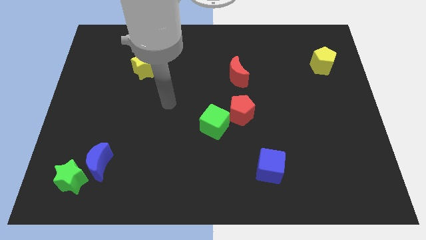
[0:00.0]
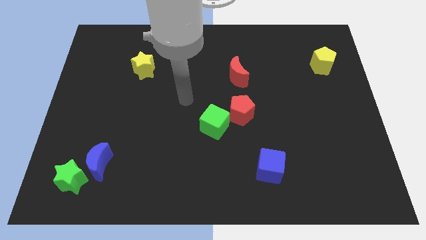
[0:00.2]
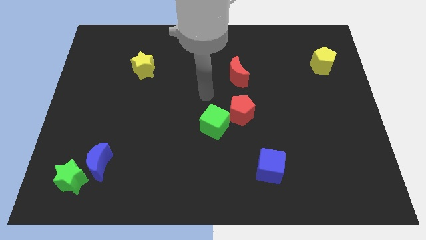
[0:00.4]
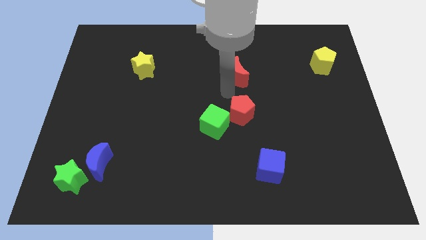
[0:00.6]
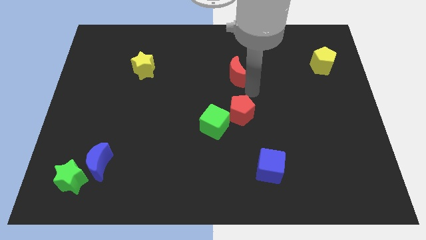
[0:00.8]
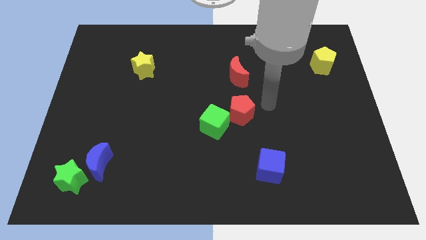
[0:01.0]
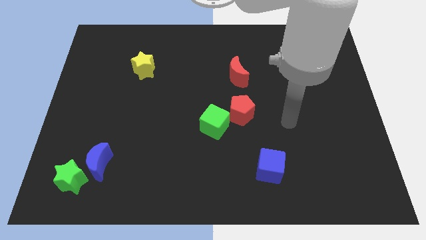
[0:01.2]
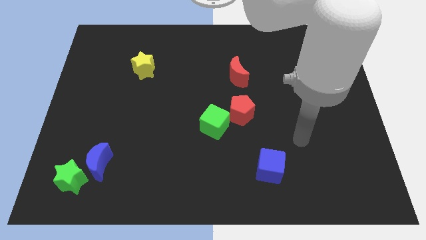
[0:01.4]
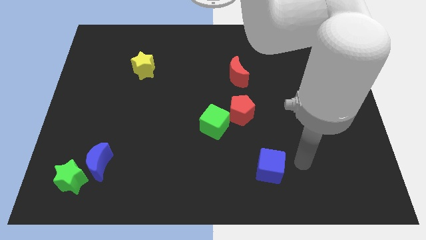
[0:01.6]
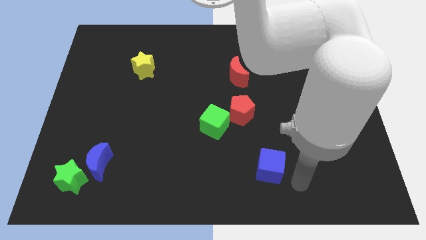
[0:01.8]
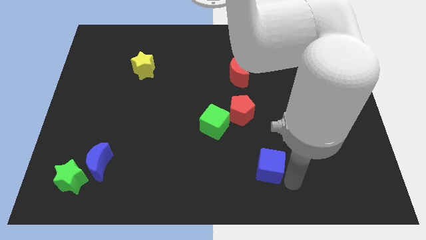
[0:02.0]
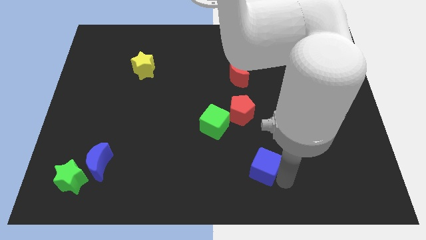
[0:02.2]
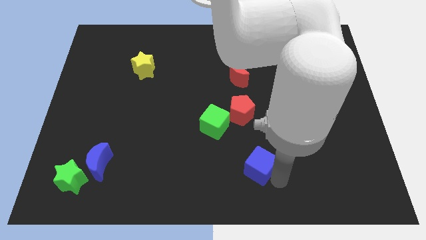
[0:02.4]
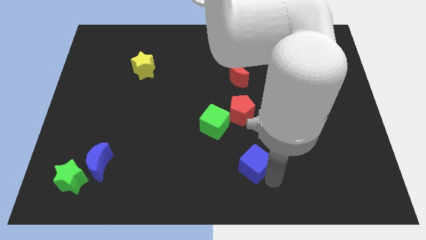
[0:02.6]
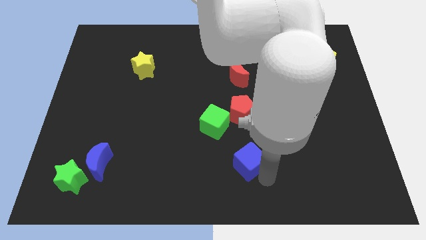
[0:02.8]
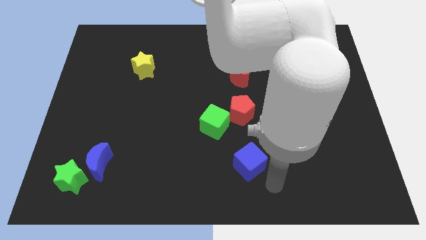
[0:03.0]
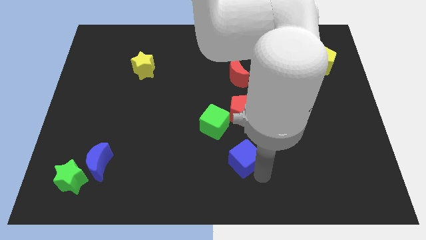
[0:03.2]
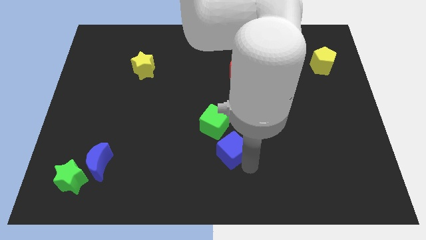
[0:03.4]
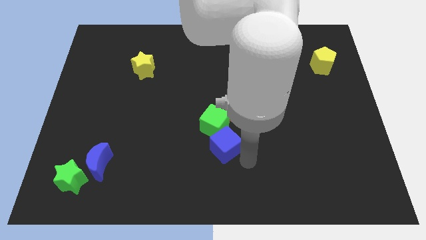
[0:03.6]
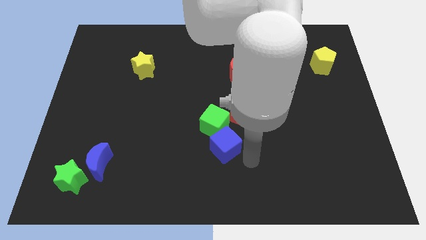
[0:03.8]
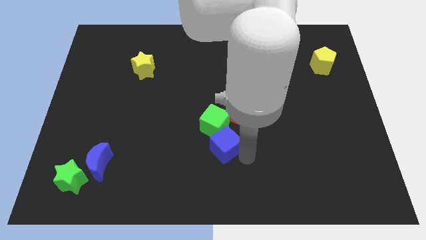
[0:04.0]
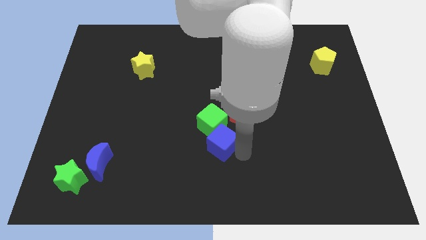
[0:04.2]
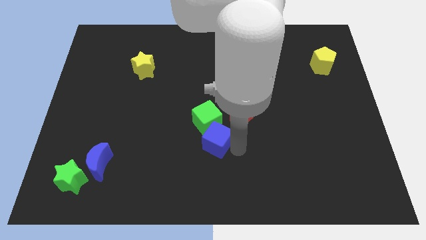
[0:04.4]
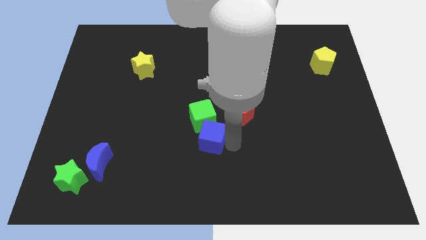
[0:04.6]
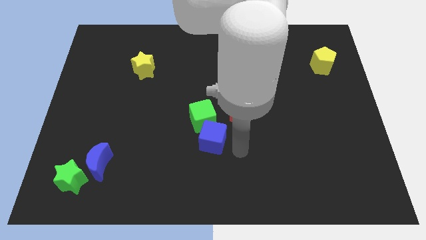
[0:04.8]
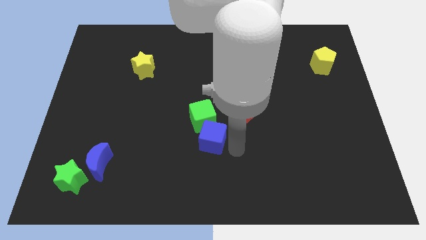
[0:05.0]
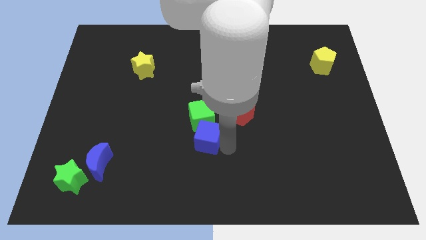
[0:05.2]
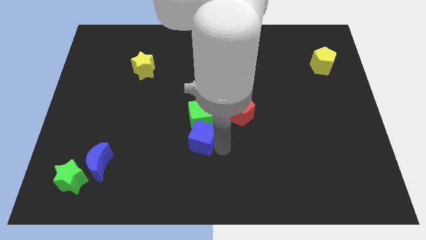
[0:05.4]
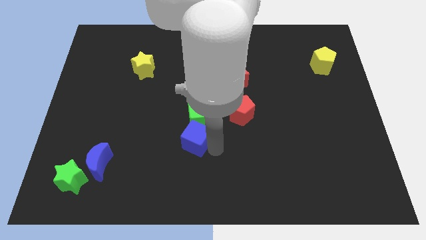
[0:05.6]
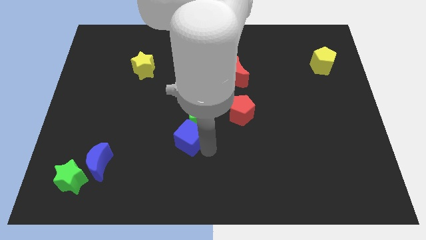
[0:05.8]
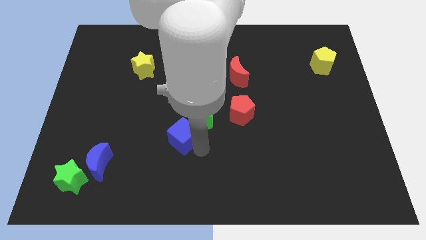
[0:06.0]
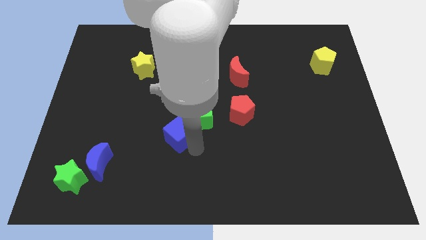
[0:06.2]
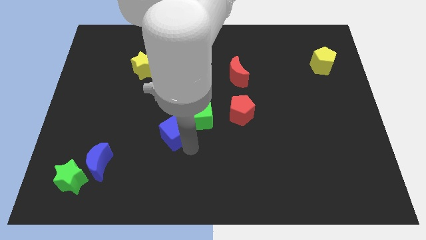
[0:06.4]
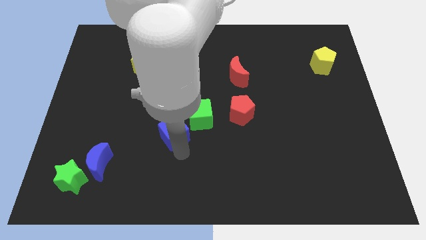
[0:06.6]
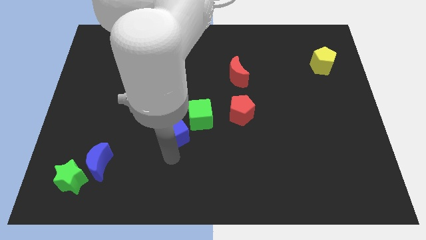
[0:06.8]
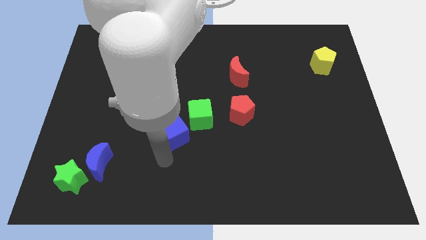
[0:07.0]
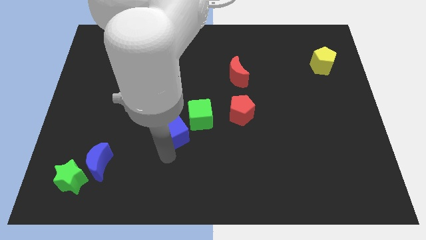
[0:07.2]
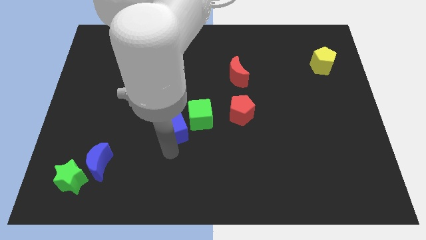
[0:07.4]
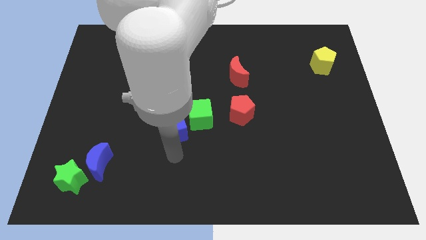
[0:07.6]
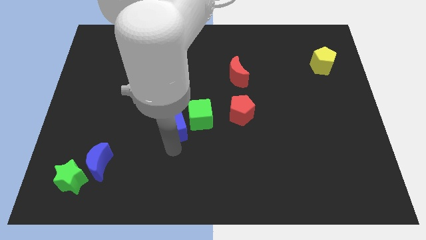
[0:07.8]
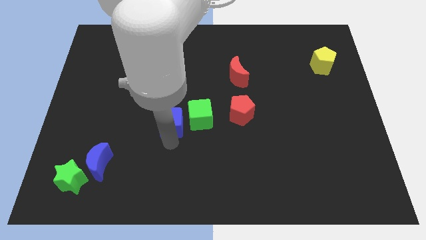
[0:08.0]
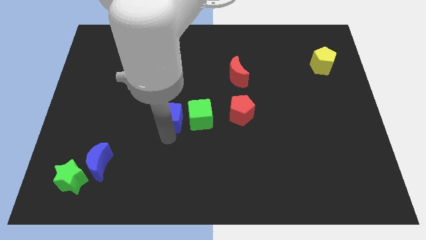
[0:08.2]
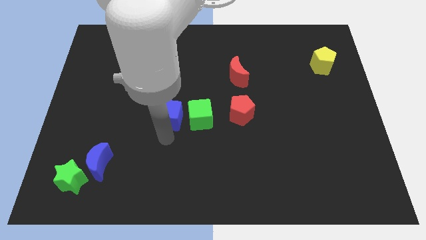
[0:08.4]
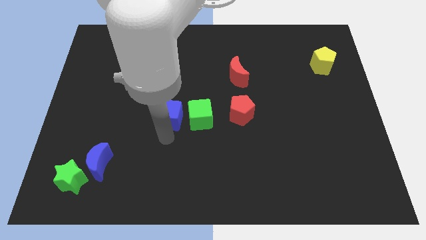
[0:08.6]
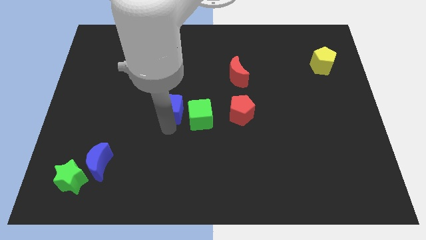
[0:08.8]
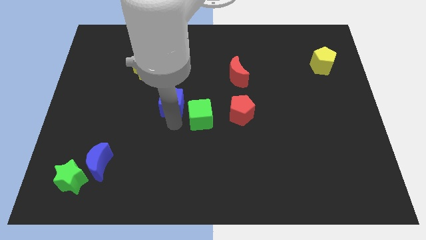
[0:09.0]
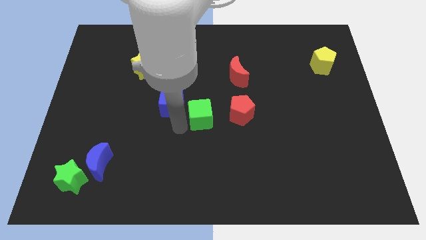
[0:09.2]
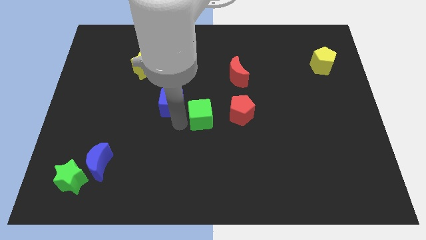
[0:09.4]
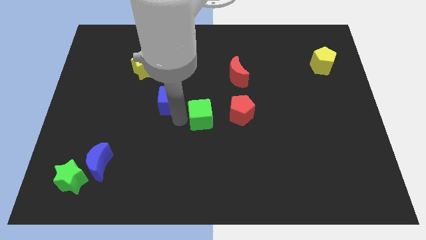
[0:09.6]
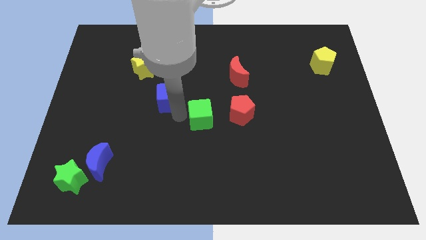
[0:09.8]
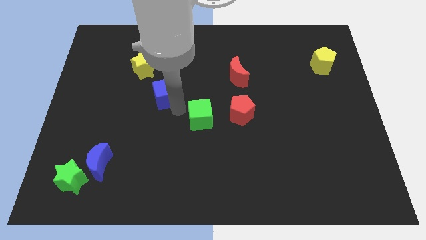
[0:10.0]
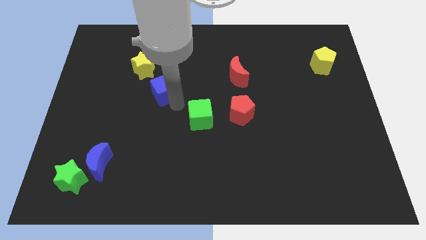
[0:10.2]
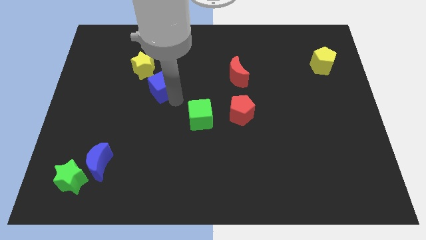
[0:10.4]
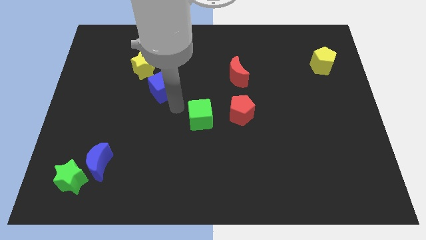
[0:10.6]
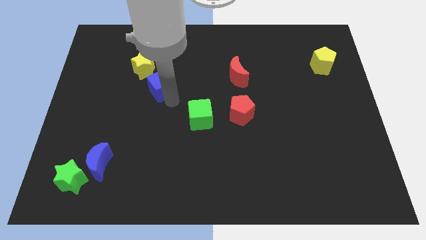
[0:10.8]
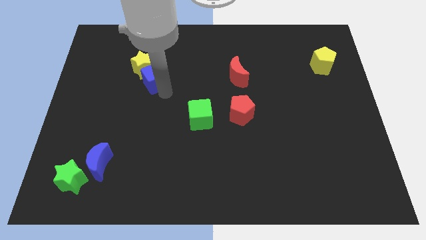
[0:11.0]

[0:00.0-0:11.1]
put the blue cube next to the yellow star

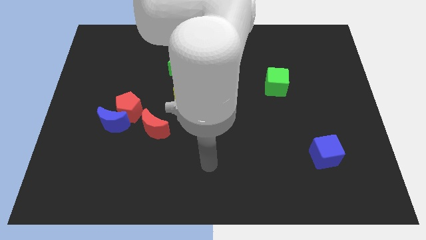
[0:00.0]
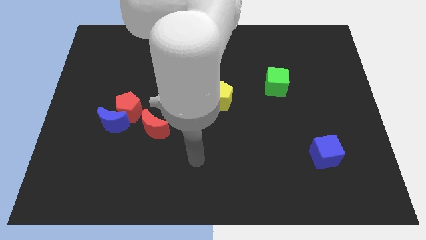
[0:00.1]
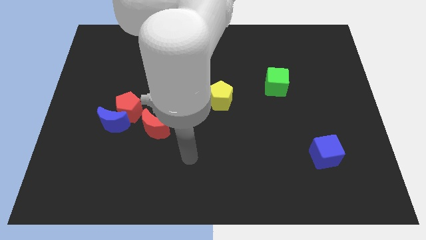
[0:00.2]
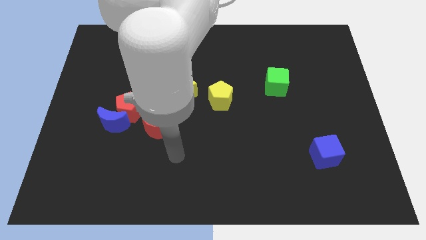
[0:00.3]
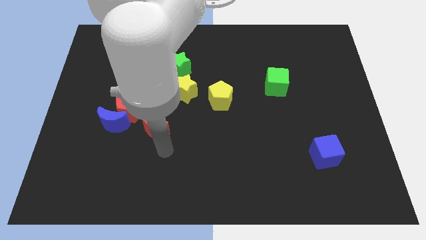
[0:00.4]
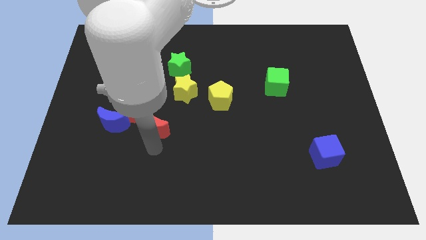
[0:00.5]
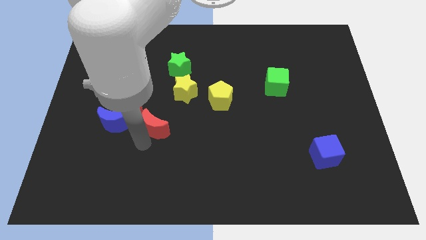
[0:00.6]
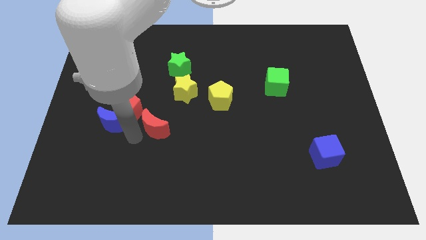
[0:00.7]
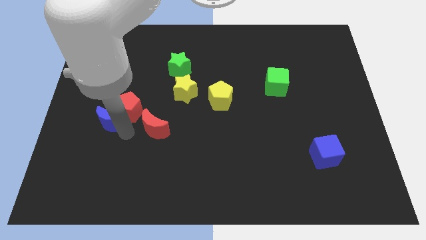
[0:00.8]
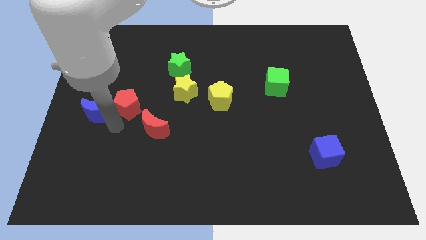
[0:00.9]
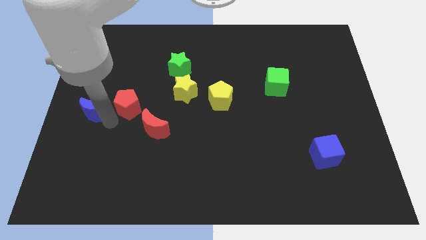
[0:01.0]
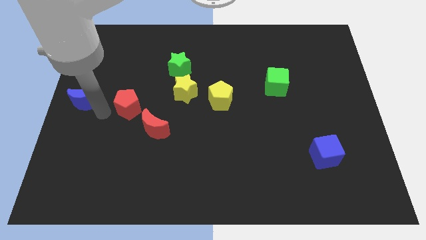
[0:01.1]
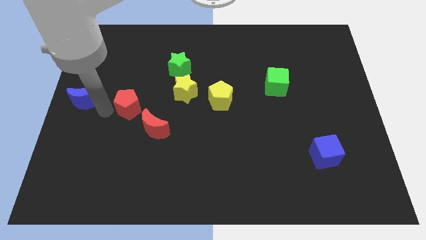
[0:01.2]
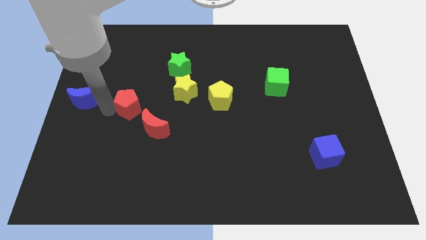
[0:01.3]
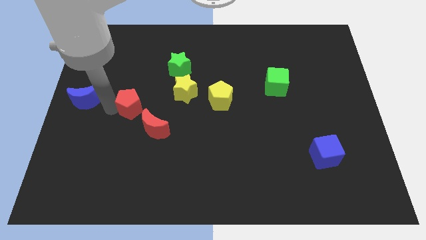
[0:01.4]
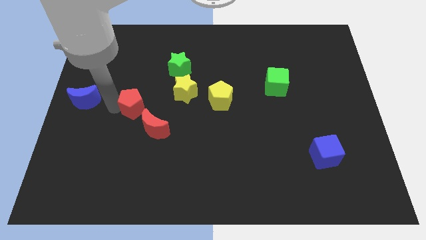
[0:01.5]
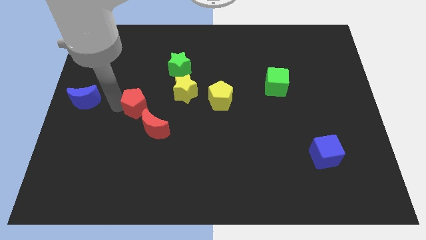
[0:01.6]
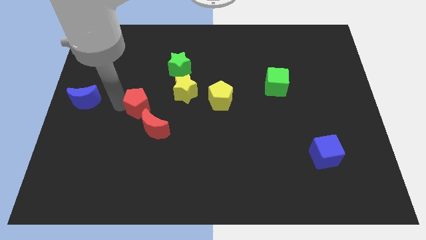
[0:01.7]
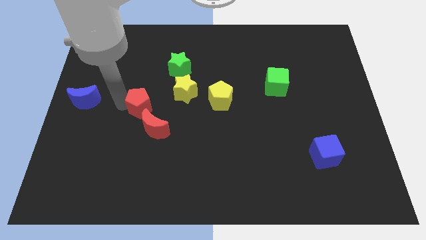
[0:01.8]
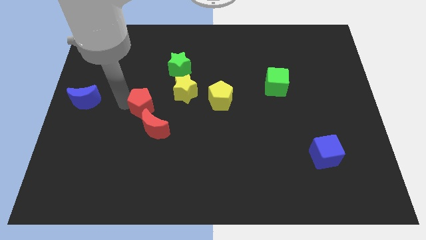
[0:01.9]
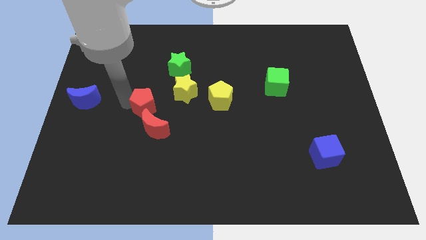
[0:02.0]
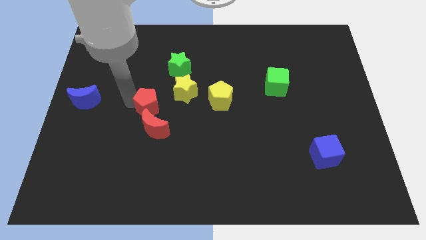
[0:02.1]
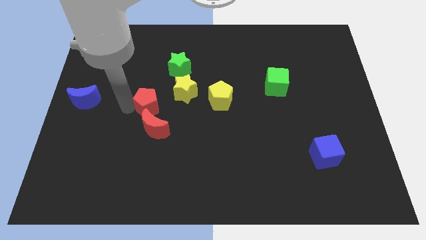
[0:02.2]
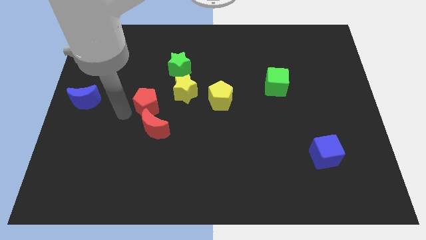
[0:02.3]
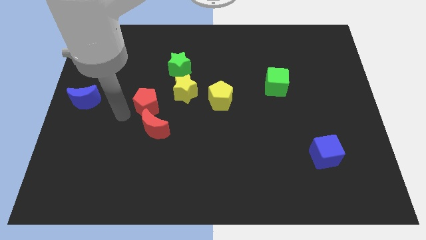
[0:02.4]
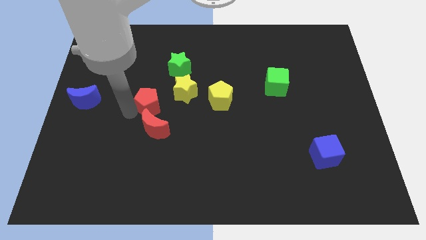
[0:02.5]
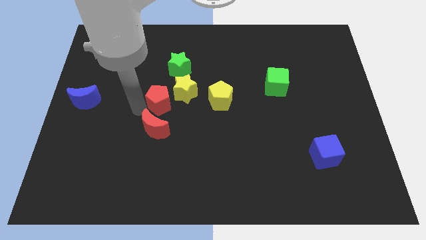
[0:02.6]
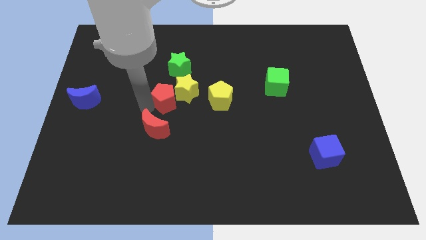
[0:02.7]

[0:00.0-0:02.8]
slide the red pentagon next to the yellow star
